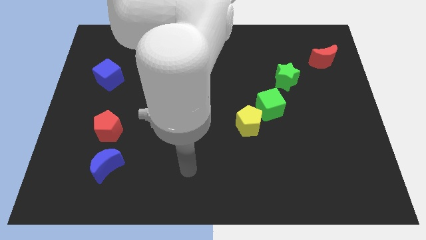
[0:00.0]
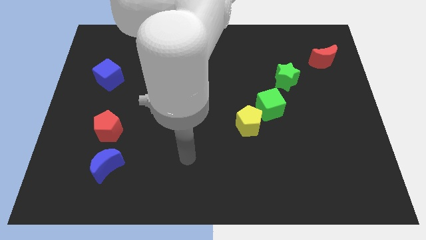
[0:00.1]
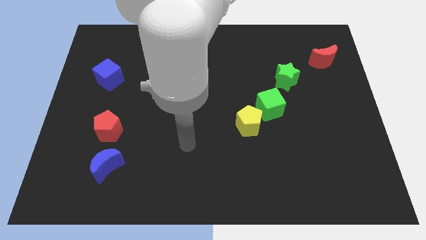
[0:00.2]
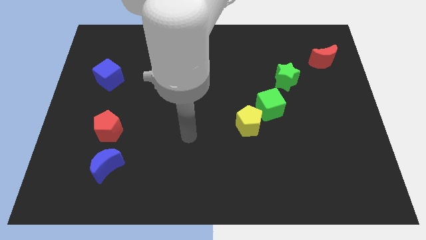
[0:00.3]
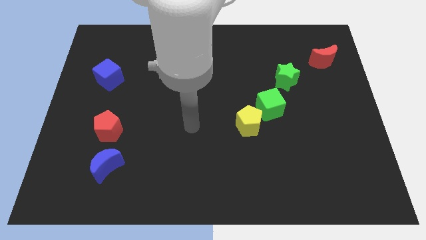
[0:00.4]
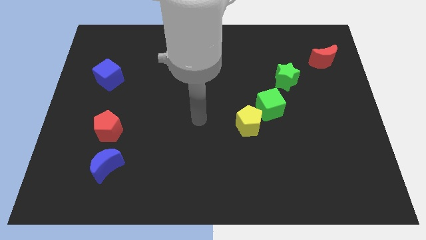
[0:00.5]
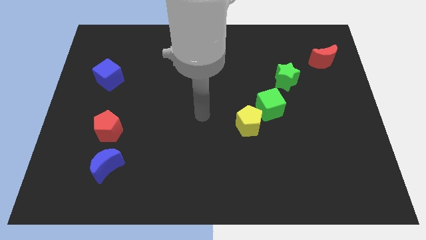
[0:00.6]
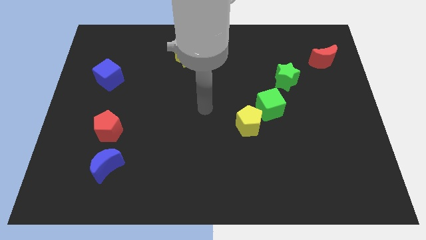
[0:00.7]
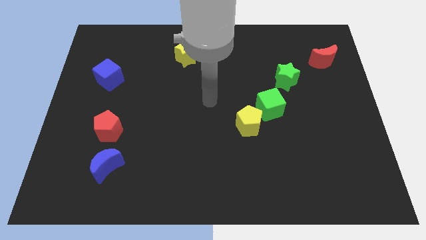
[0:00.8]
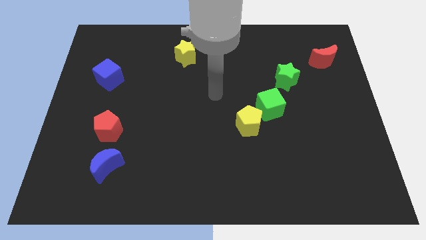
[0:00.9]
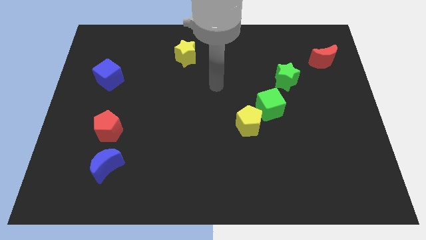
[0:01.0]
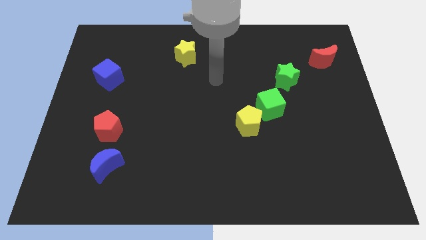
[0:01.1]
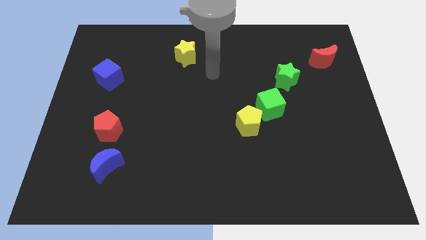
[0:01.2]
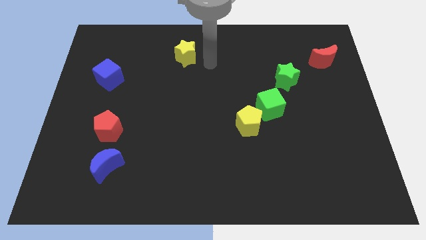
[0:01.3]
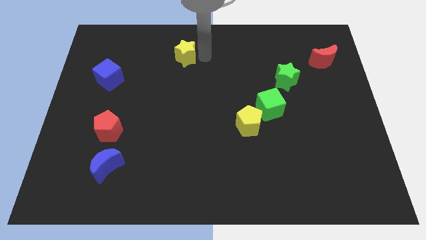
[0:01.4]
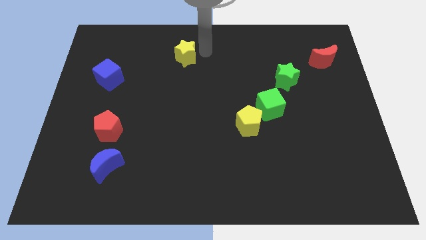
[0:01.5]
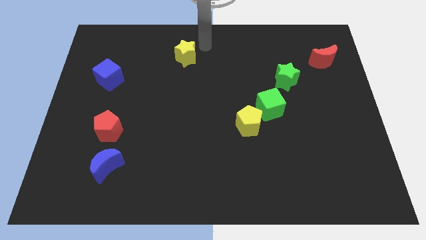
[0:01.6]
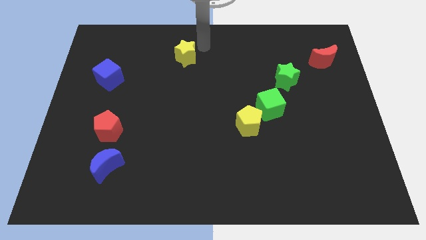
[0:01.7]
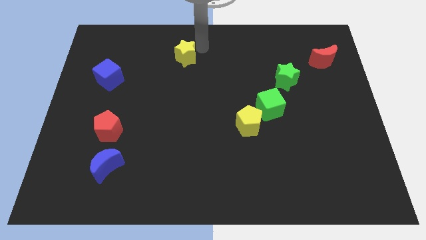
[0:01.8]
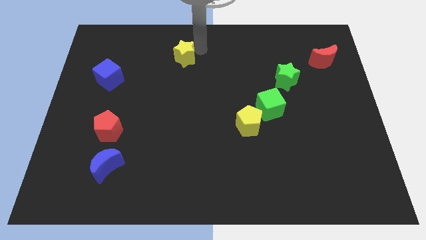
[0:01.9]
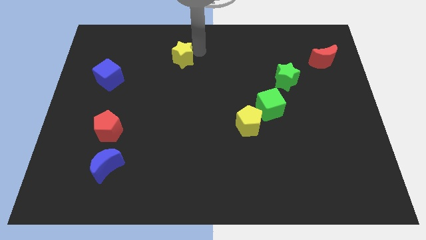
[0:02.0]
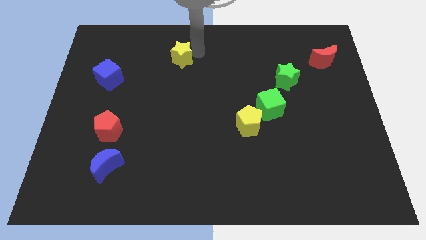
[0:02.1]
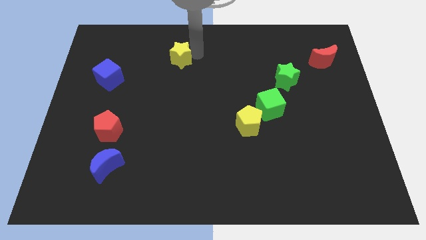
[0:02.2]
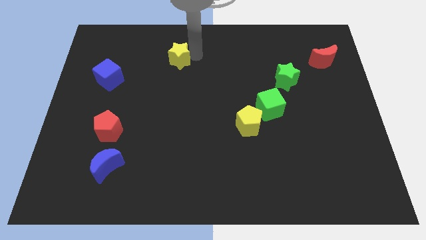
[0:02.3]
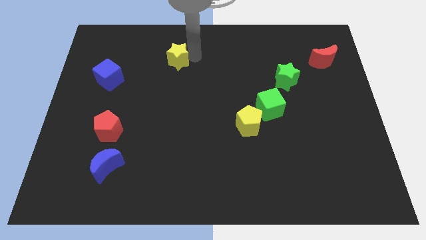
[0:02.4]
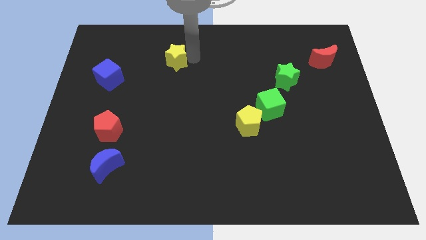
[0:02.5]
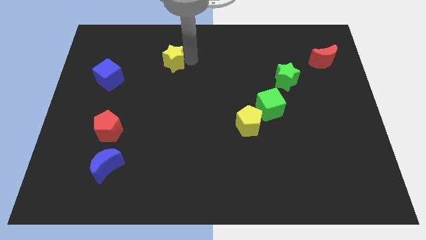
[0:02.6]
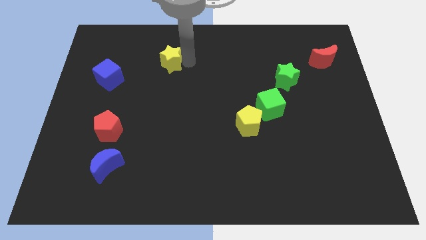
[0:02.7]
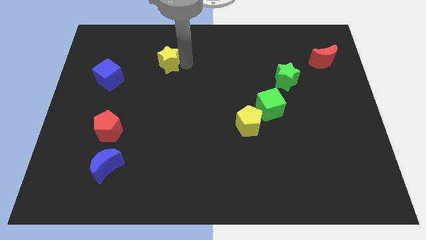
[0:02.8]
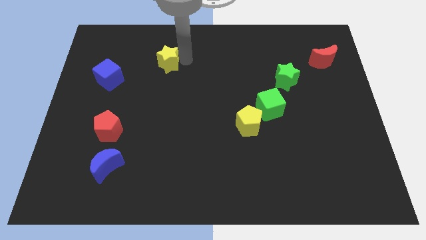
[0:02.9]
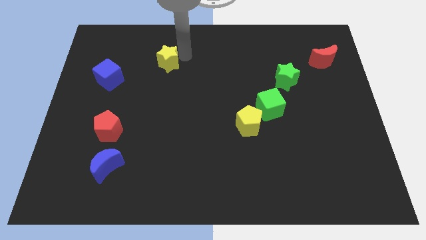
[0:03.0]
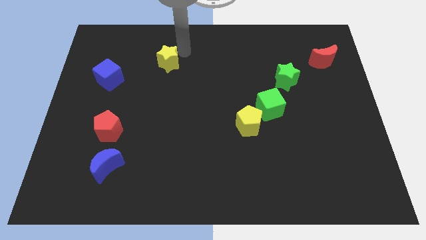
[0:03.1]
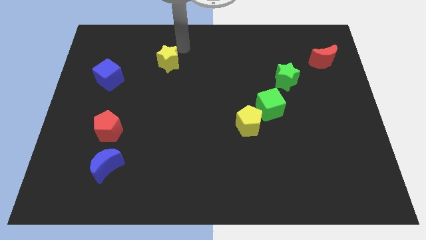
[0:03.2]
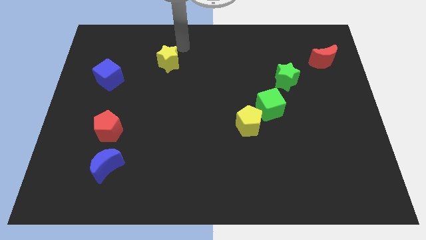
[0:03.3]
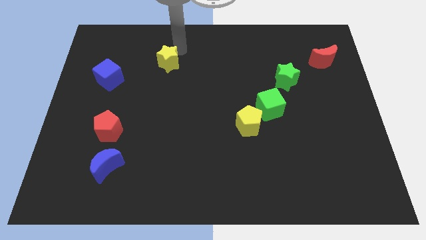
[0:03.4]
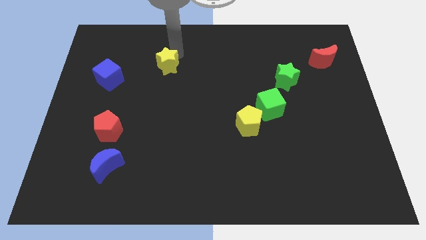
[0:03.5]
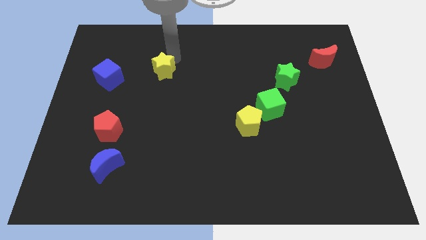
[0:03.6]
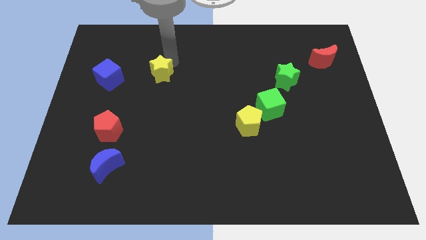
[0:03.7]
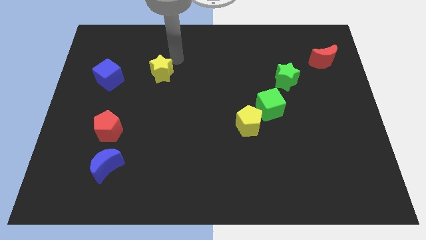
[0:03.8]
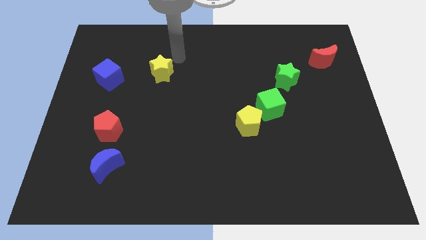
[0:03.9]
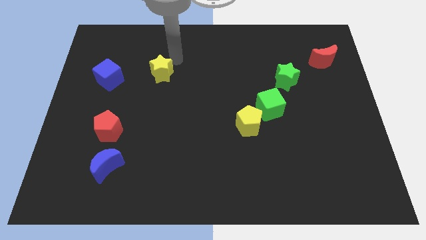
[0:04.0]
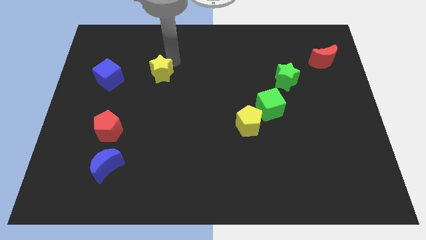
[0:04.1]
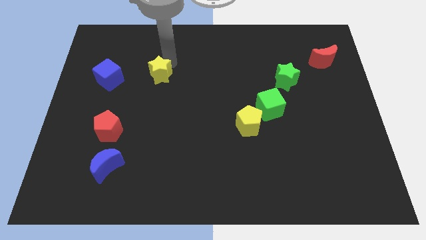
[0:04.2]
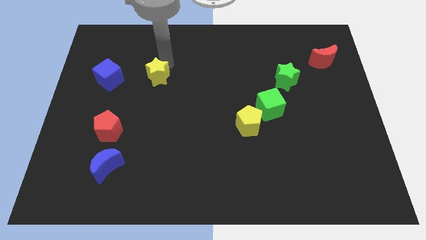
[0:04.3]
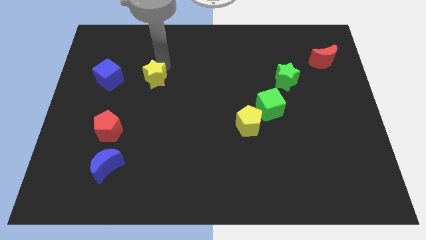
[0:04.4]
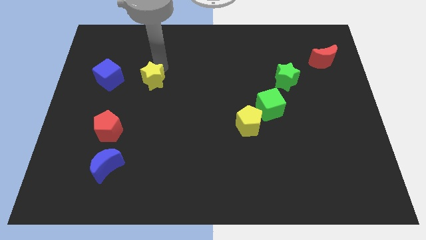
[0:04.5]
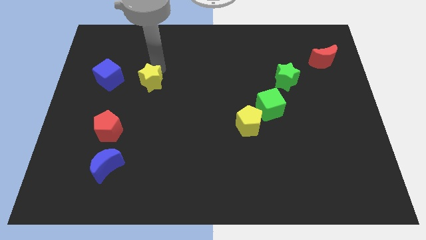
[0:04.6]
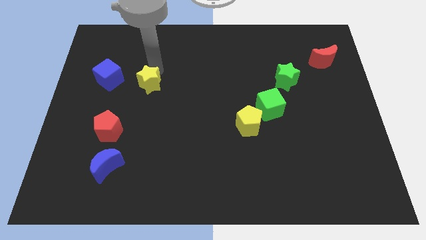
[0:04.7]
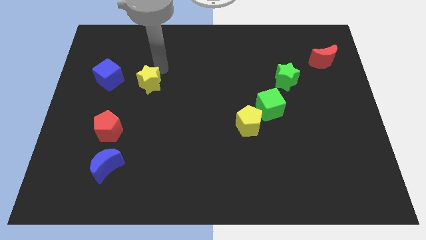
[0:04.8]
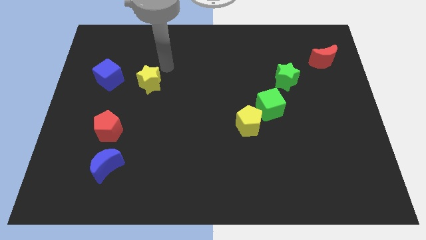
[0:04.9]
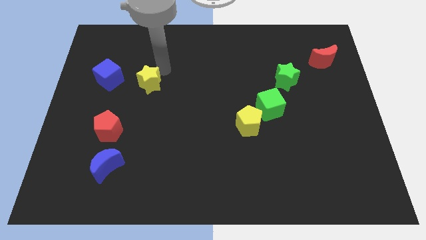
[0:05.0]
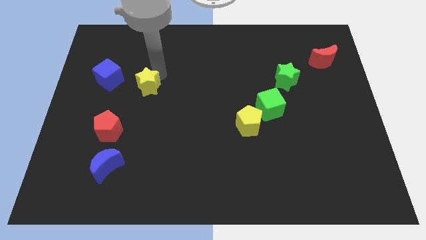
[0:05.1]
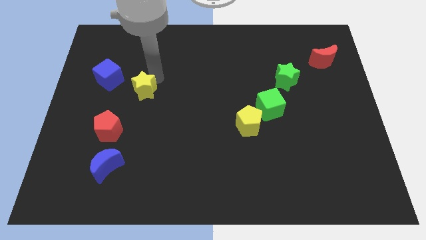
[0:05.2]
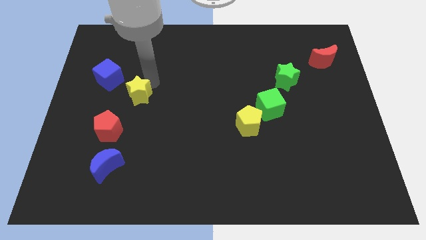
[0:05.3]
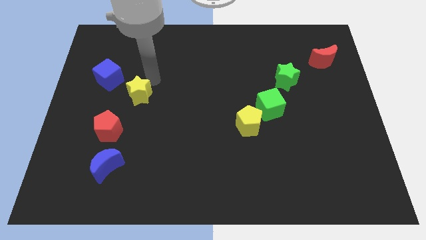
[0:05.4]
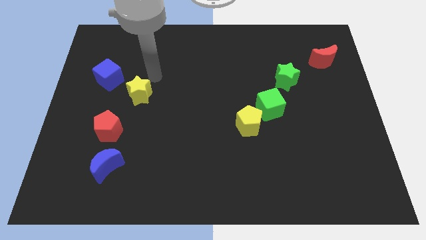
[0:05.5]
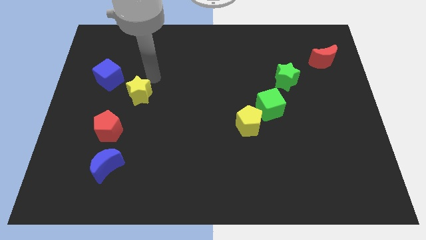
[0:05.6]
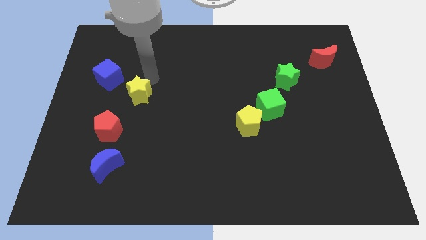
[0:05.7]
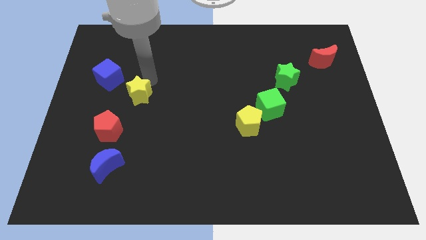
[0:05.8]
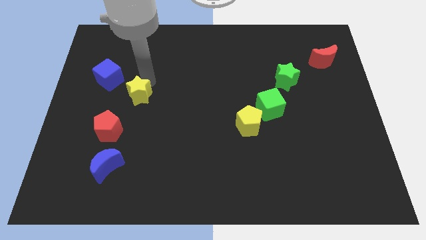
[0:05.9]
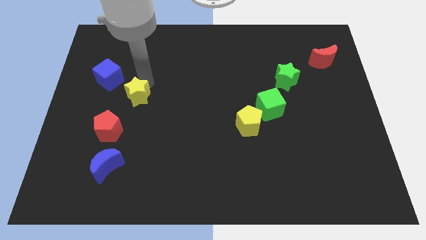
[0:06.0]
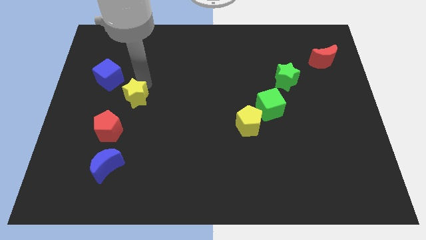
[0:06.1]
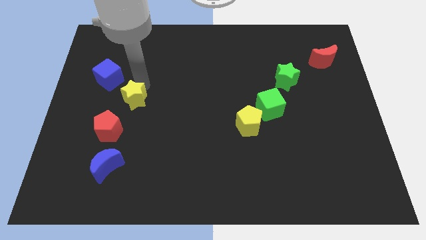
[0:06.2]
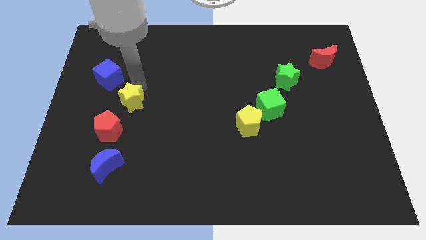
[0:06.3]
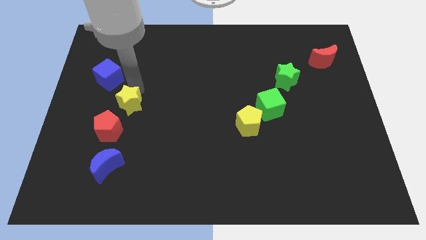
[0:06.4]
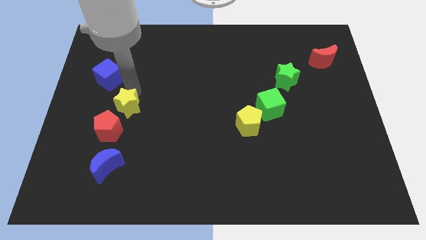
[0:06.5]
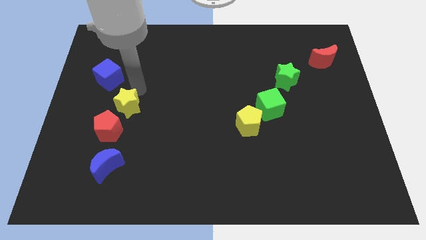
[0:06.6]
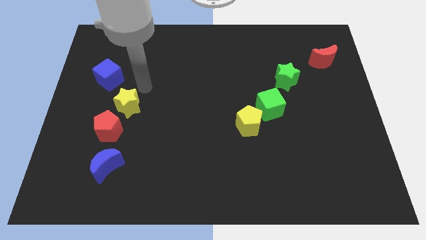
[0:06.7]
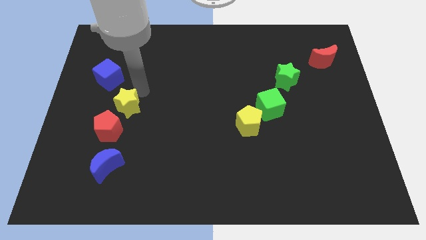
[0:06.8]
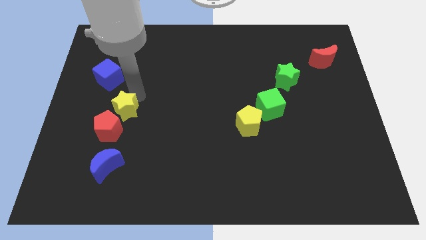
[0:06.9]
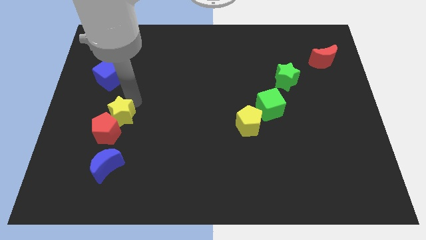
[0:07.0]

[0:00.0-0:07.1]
push the yellow star close to the red pentagon
